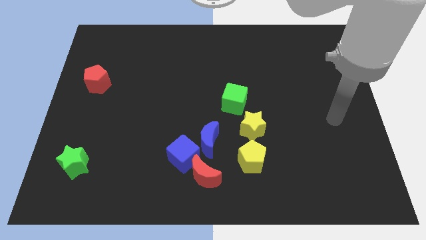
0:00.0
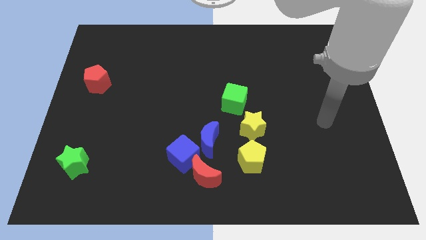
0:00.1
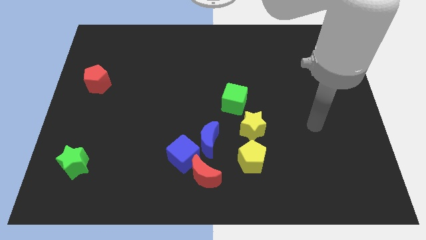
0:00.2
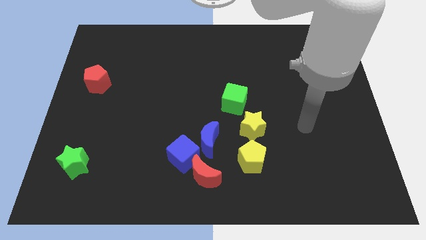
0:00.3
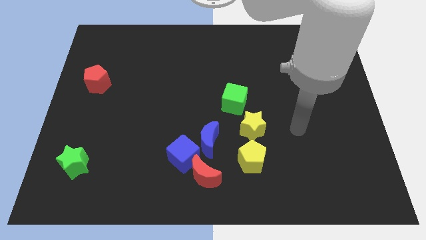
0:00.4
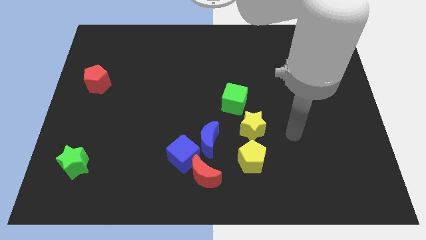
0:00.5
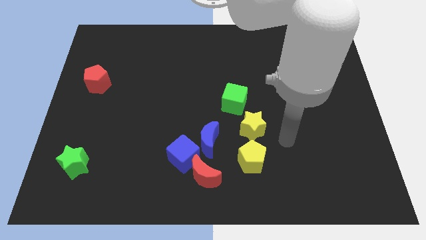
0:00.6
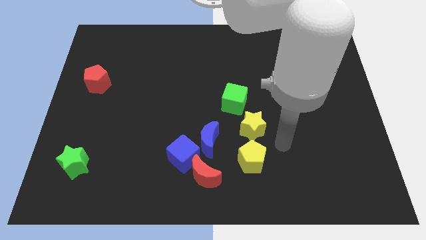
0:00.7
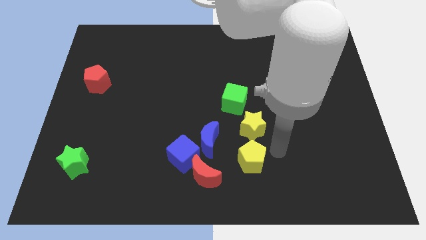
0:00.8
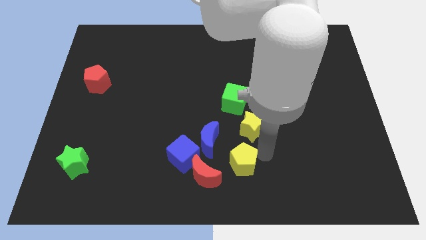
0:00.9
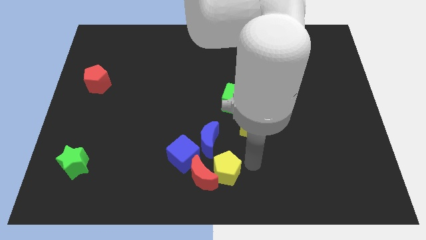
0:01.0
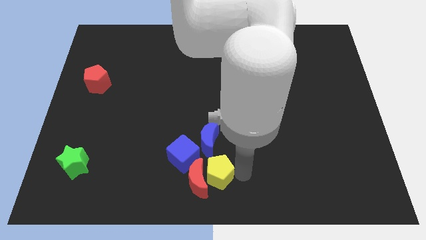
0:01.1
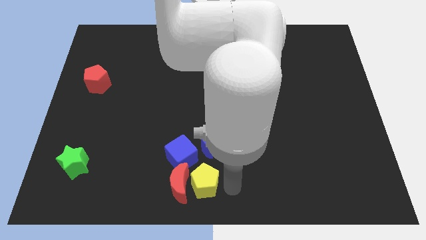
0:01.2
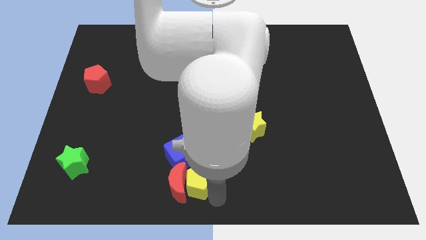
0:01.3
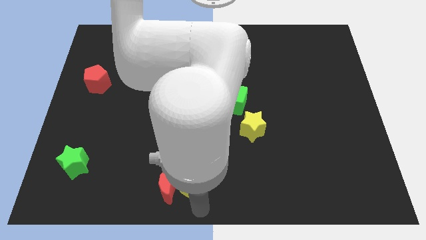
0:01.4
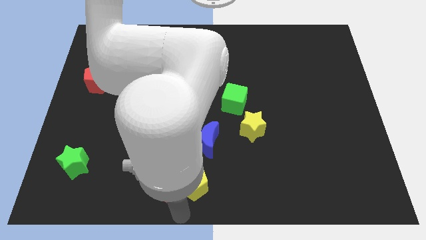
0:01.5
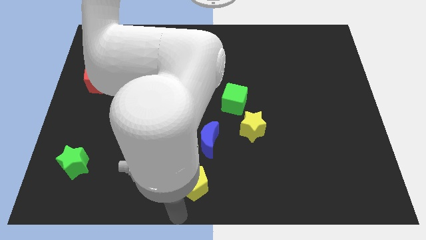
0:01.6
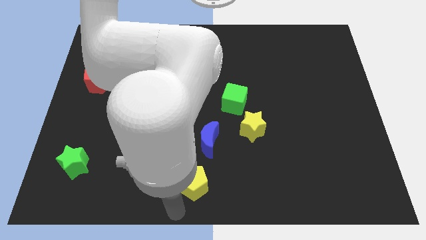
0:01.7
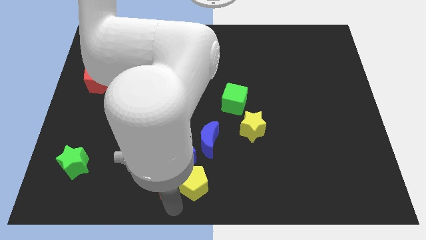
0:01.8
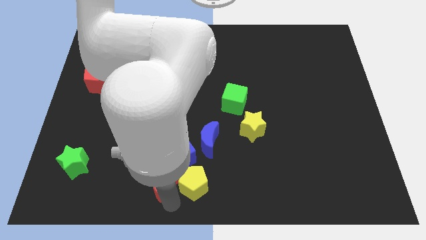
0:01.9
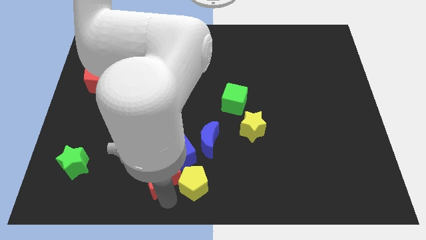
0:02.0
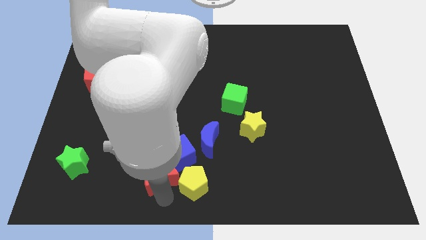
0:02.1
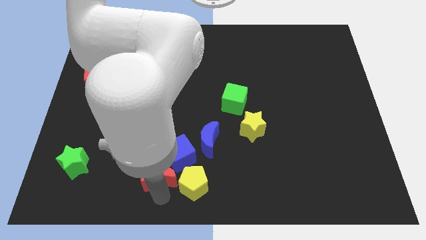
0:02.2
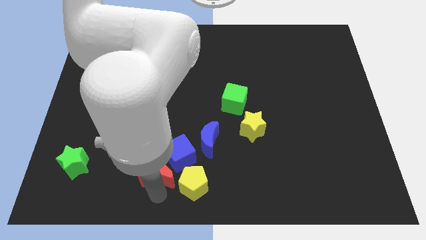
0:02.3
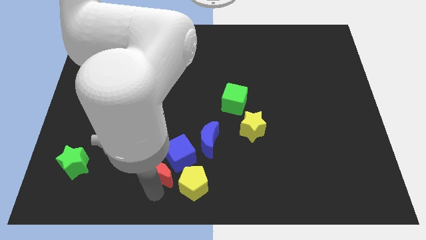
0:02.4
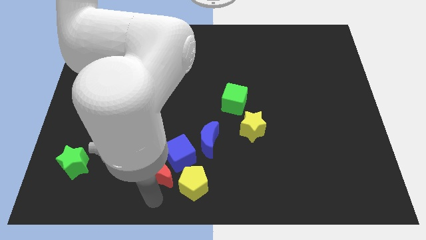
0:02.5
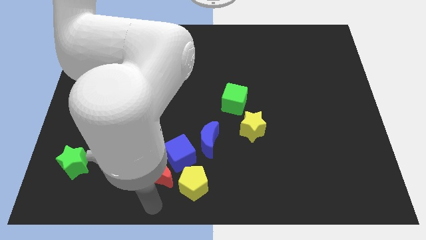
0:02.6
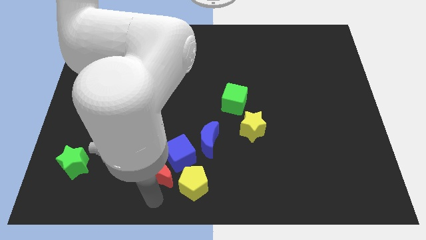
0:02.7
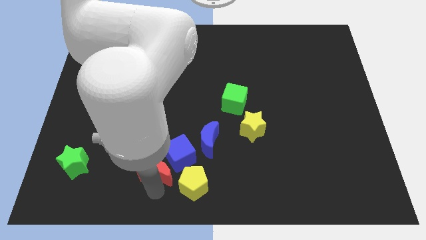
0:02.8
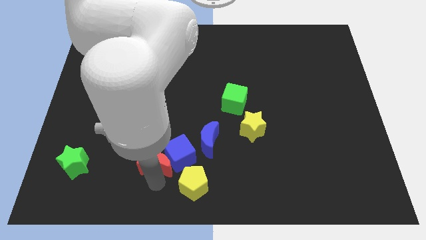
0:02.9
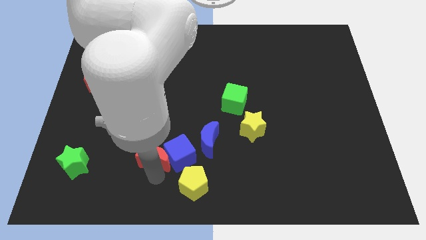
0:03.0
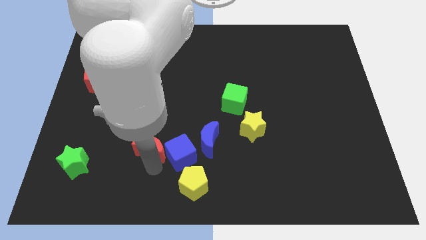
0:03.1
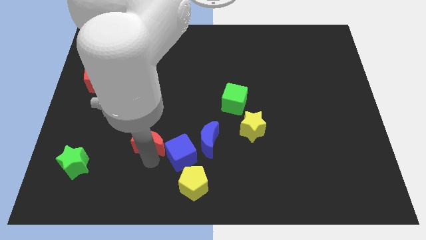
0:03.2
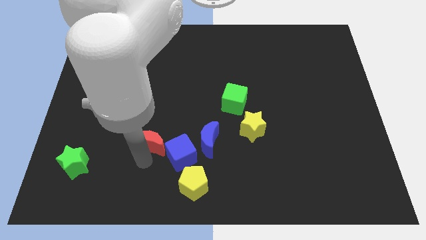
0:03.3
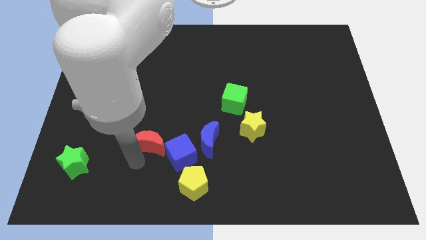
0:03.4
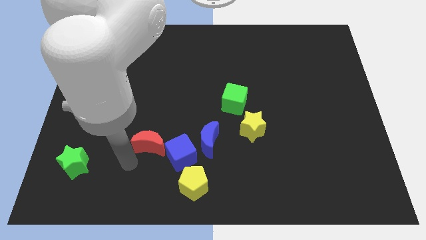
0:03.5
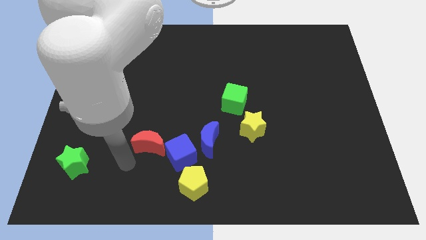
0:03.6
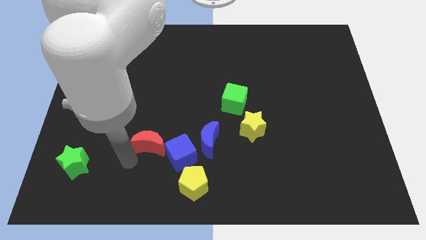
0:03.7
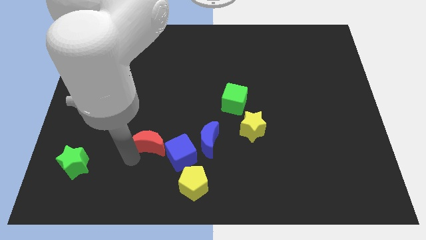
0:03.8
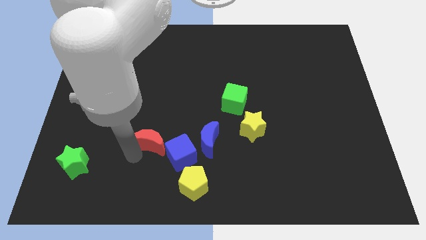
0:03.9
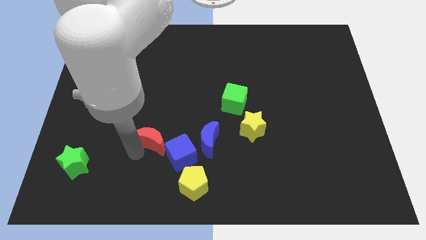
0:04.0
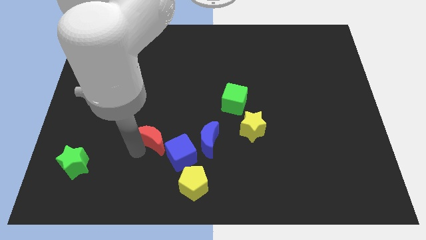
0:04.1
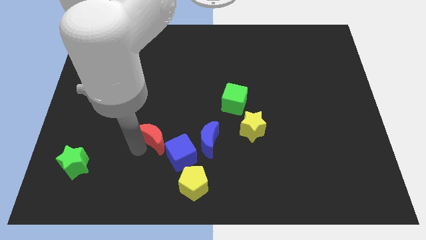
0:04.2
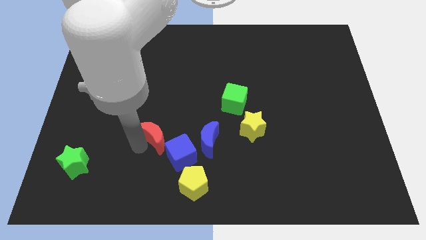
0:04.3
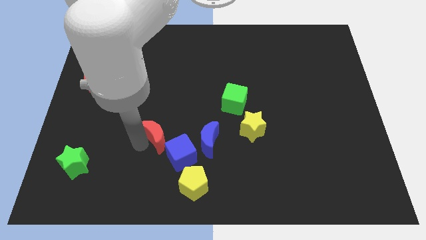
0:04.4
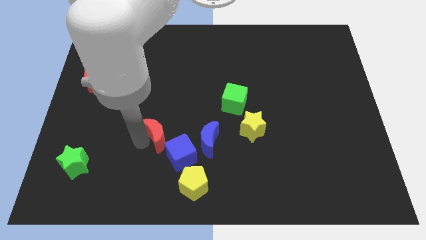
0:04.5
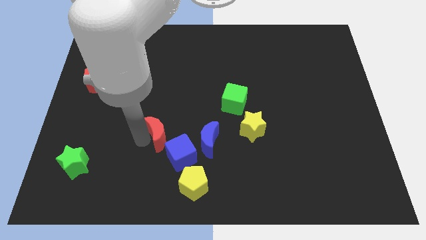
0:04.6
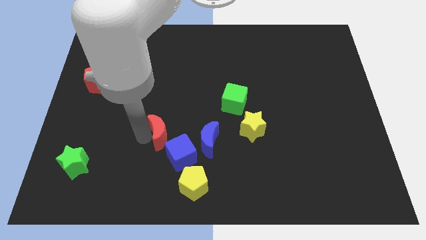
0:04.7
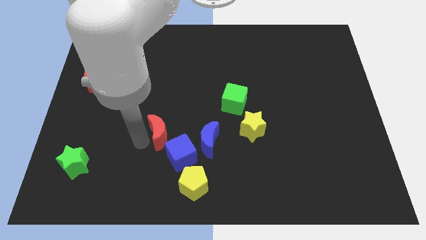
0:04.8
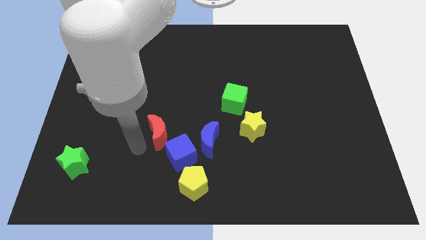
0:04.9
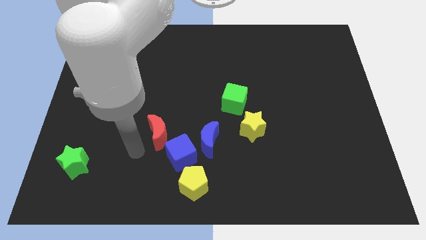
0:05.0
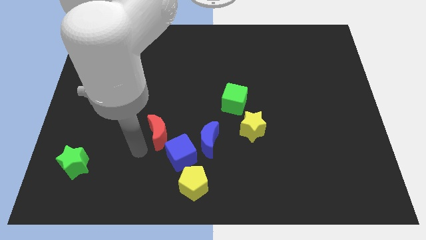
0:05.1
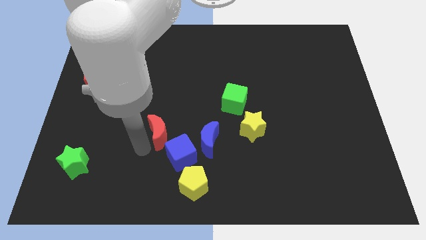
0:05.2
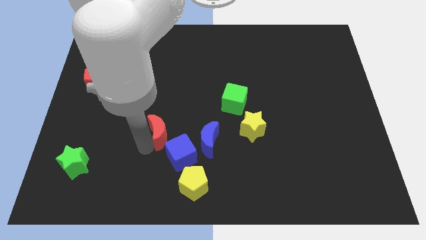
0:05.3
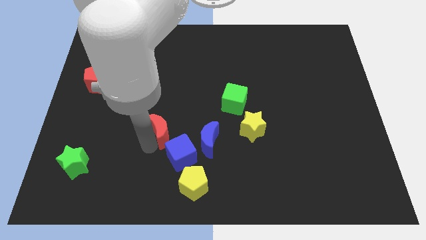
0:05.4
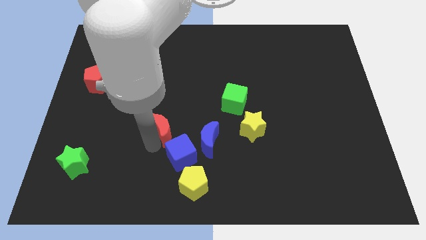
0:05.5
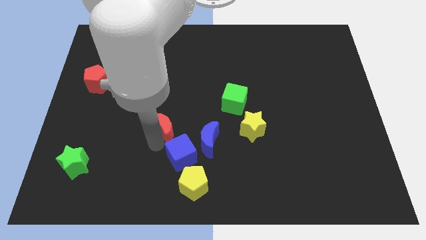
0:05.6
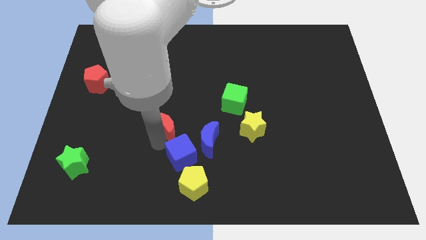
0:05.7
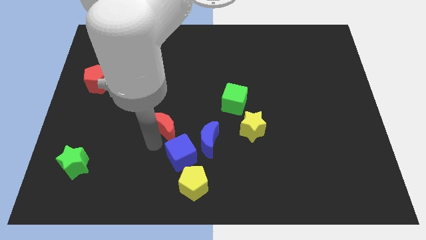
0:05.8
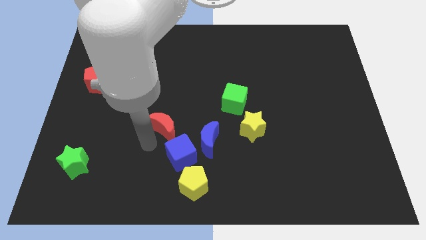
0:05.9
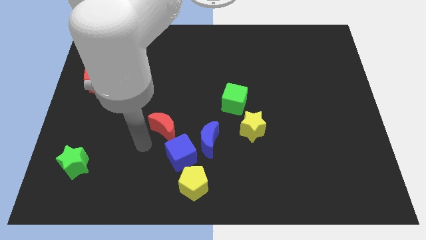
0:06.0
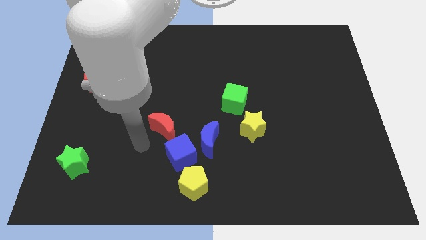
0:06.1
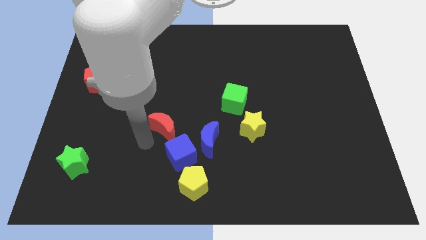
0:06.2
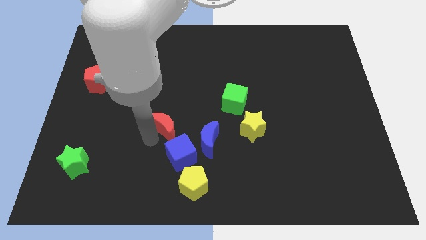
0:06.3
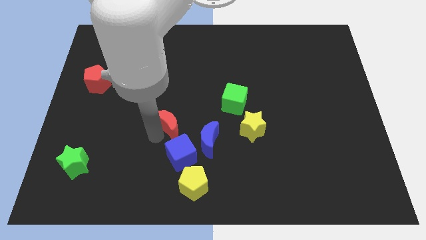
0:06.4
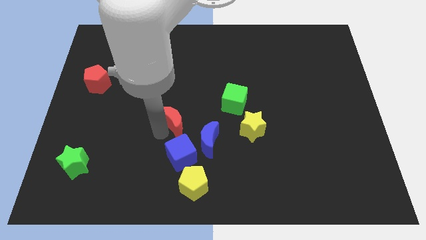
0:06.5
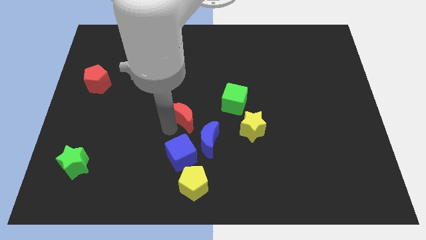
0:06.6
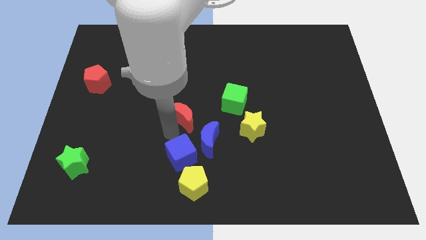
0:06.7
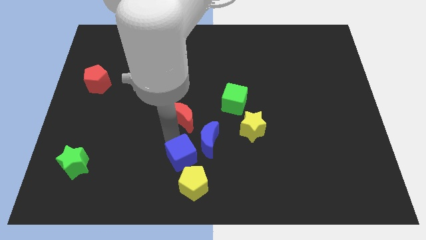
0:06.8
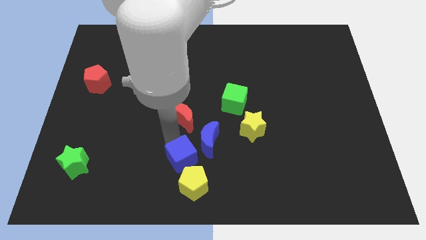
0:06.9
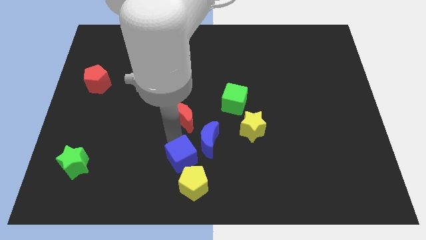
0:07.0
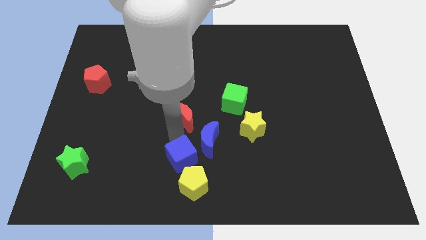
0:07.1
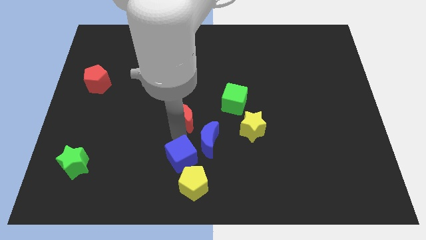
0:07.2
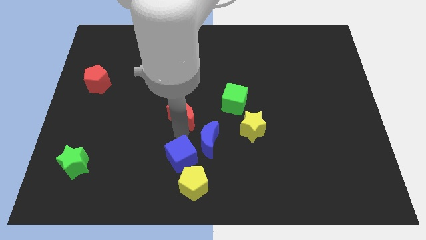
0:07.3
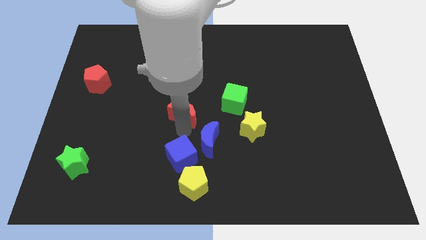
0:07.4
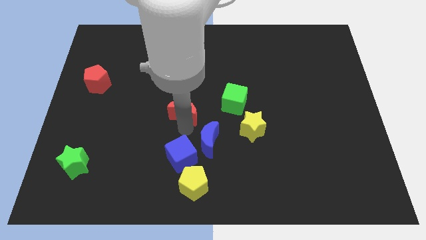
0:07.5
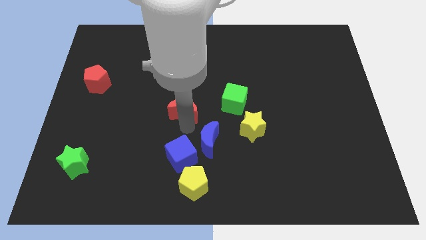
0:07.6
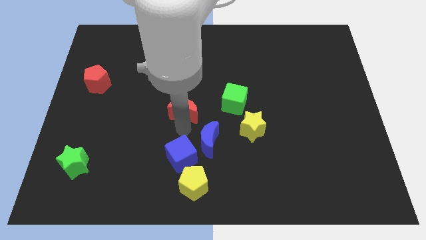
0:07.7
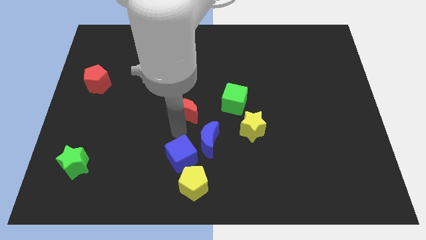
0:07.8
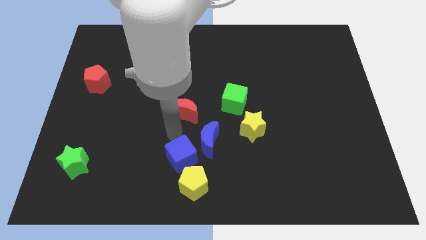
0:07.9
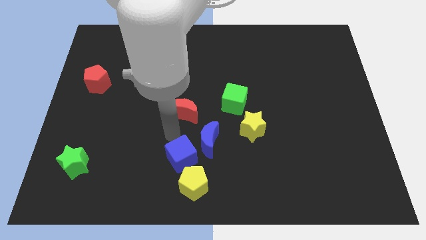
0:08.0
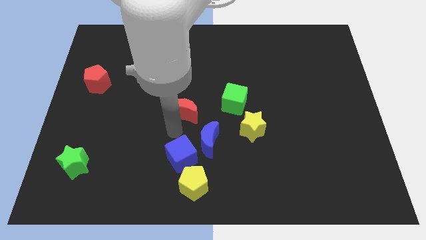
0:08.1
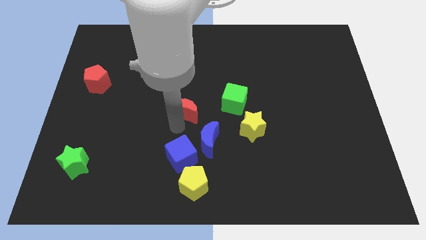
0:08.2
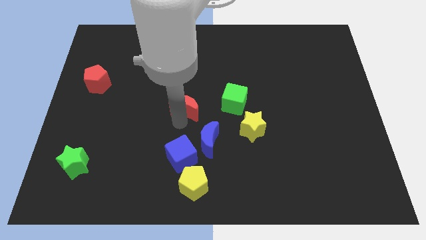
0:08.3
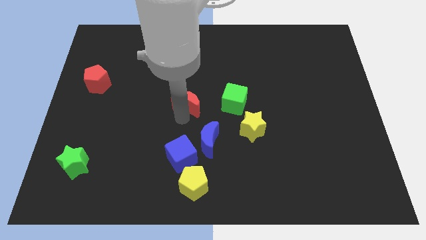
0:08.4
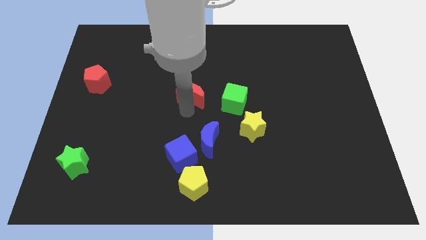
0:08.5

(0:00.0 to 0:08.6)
push the red moon upwards
